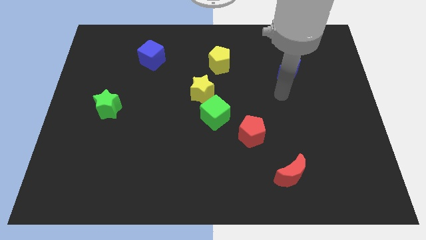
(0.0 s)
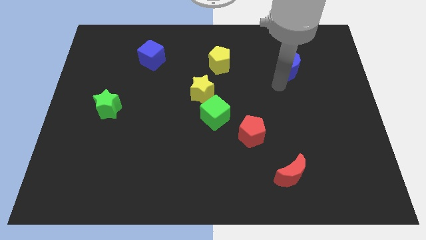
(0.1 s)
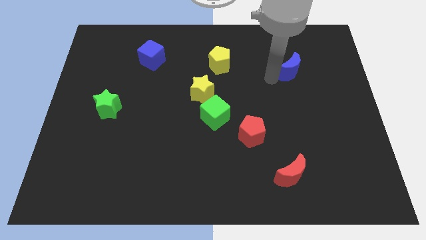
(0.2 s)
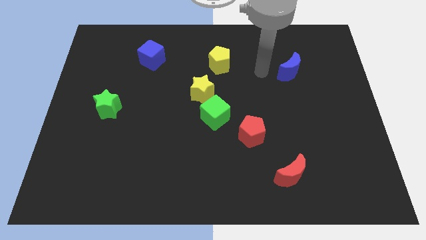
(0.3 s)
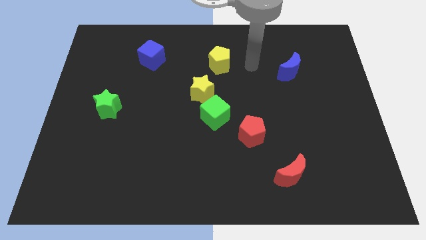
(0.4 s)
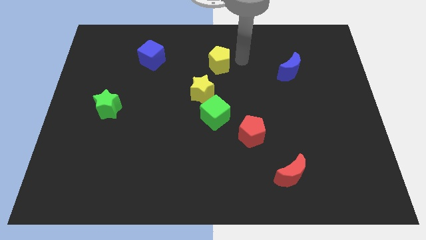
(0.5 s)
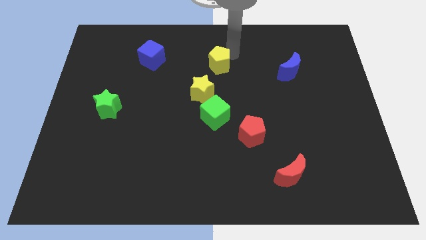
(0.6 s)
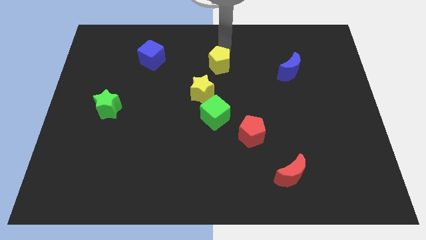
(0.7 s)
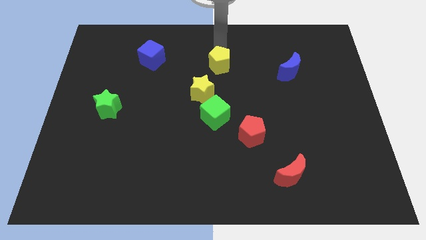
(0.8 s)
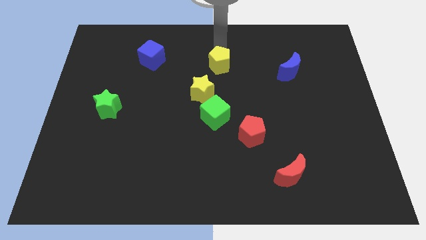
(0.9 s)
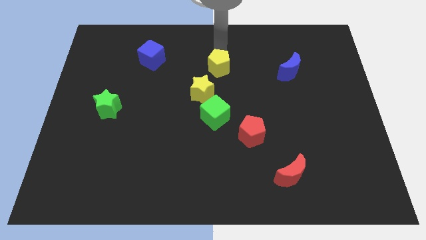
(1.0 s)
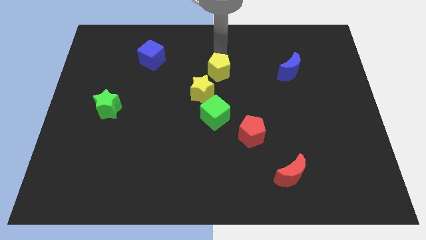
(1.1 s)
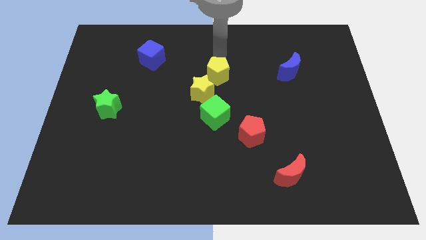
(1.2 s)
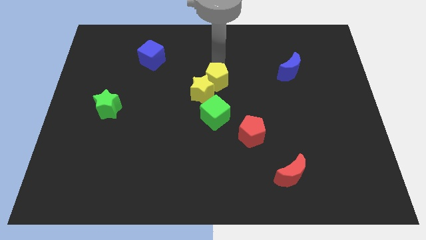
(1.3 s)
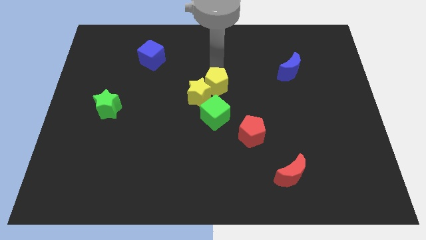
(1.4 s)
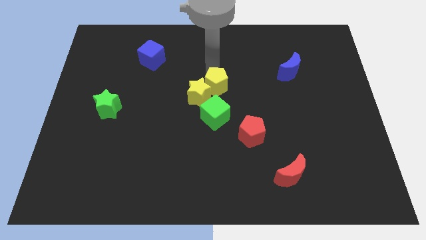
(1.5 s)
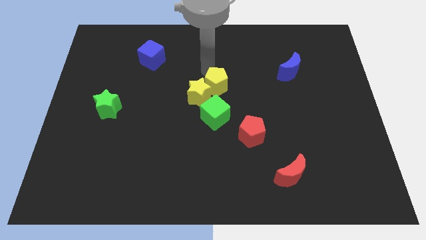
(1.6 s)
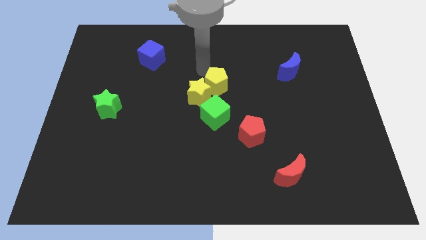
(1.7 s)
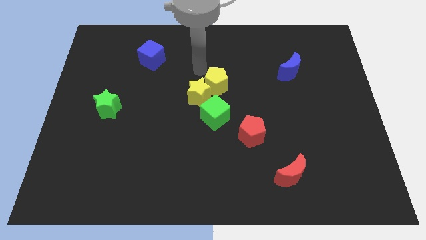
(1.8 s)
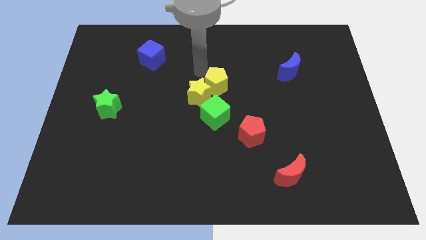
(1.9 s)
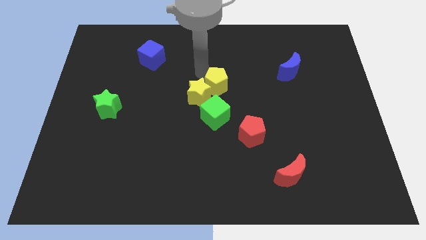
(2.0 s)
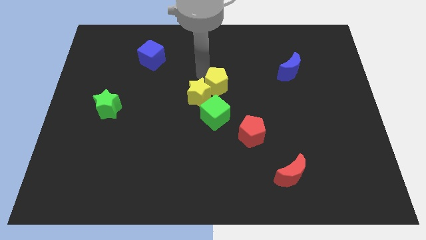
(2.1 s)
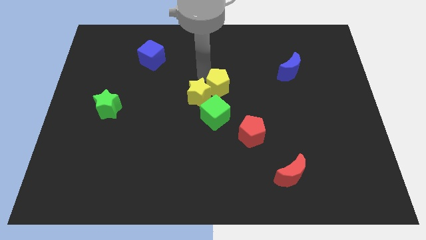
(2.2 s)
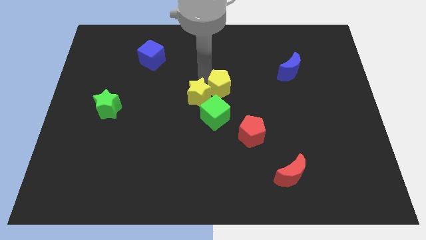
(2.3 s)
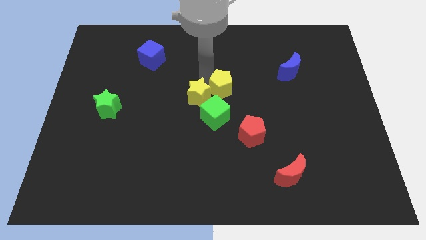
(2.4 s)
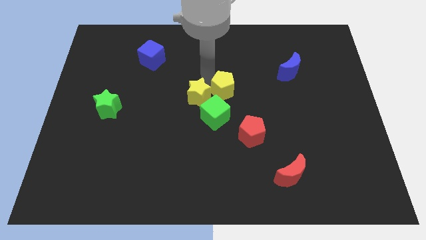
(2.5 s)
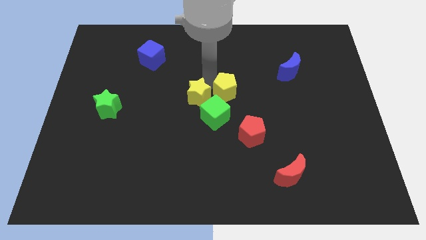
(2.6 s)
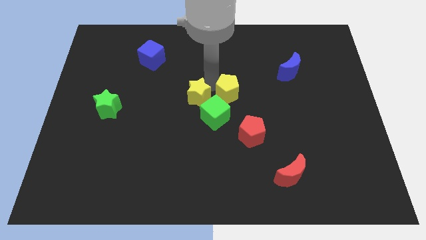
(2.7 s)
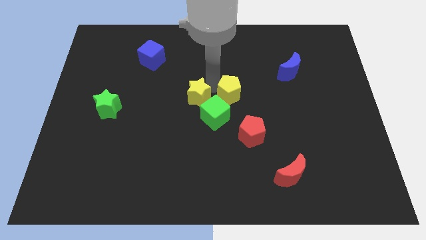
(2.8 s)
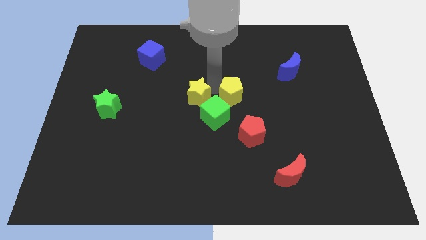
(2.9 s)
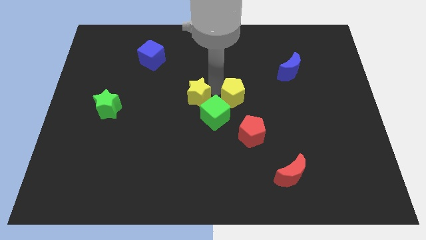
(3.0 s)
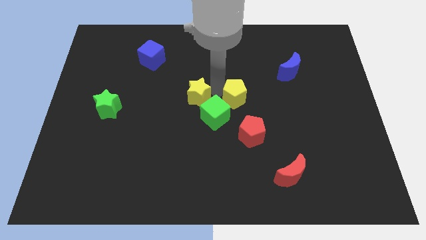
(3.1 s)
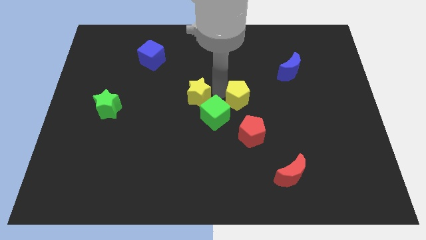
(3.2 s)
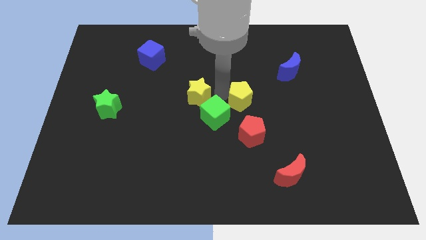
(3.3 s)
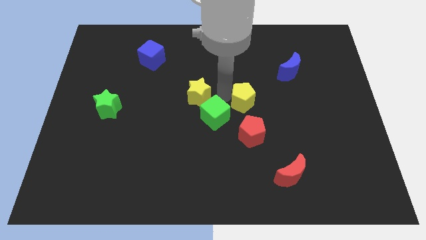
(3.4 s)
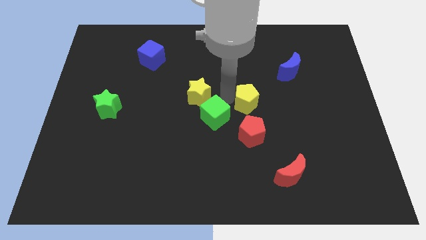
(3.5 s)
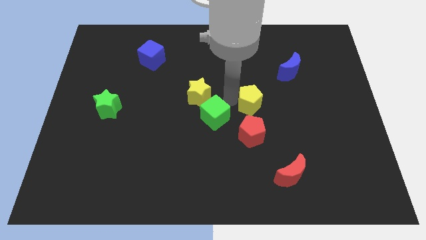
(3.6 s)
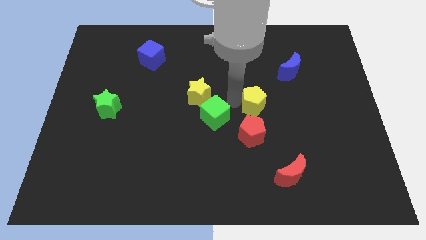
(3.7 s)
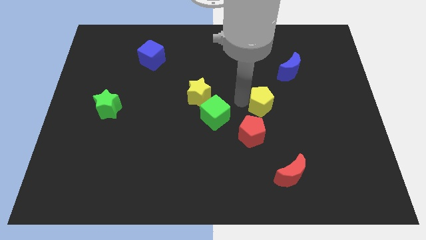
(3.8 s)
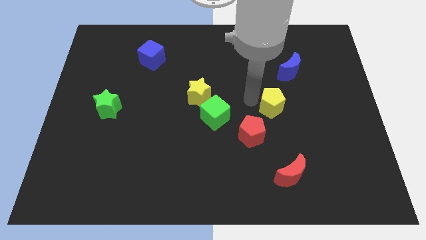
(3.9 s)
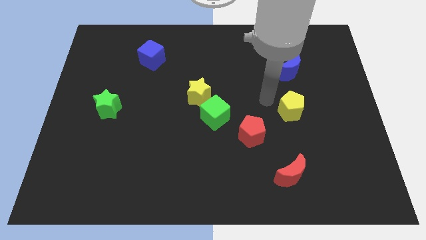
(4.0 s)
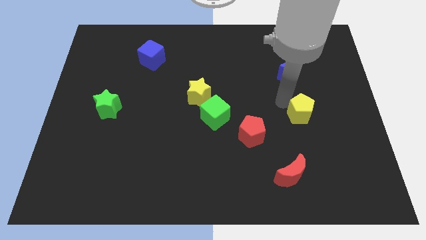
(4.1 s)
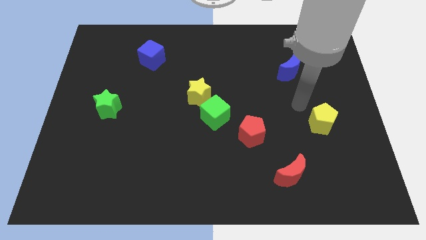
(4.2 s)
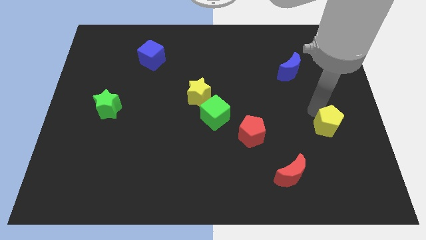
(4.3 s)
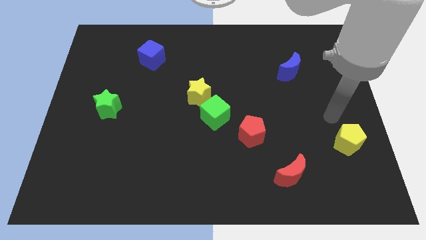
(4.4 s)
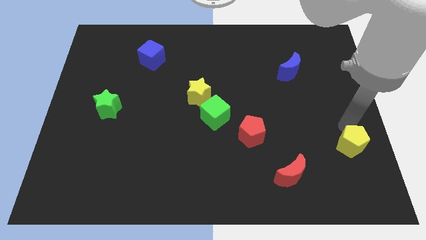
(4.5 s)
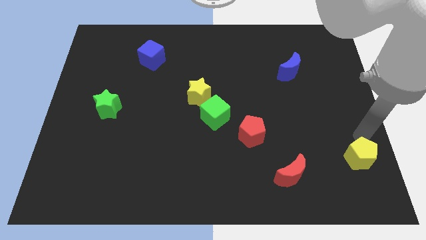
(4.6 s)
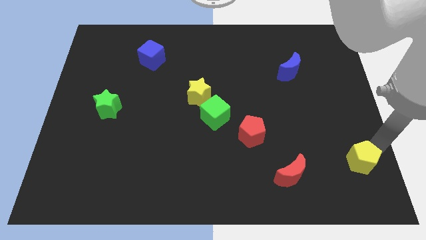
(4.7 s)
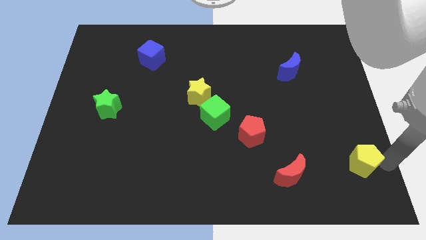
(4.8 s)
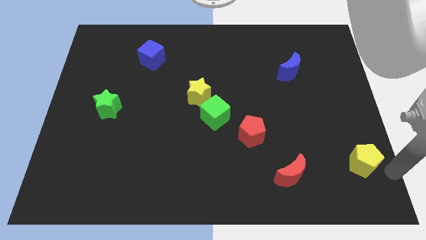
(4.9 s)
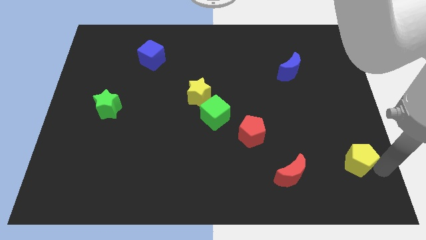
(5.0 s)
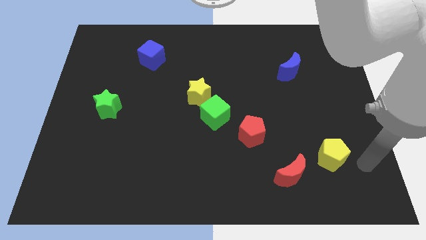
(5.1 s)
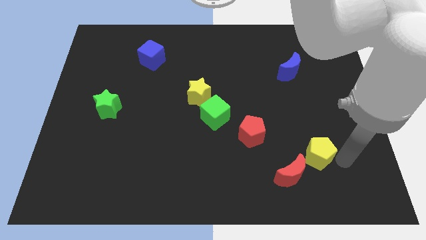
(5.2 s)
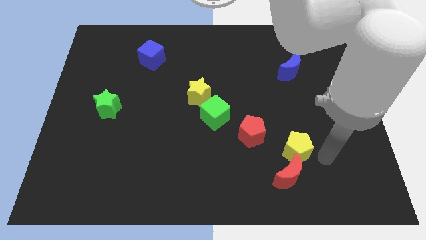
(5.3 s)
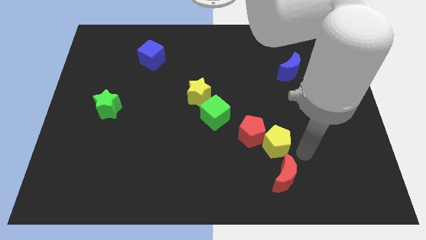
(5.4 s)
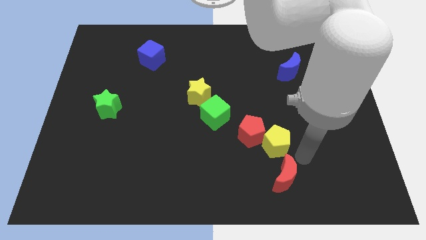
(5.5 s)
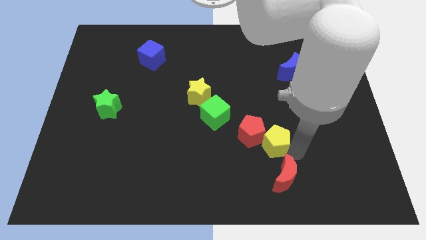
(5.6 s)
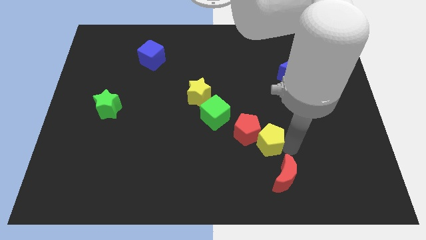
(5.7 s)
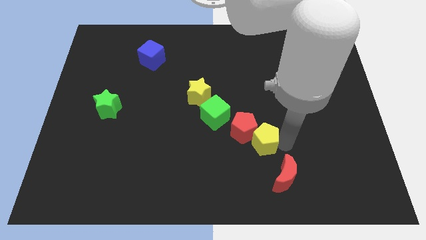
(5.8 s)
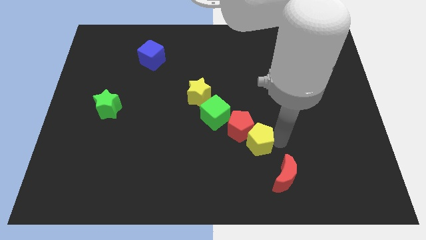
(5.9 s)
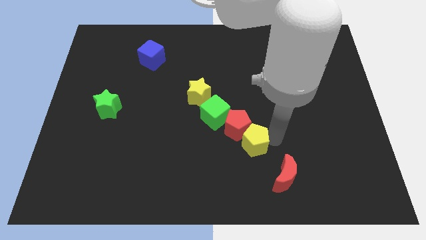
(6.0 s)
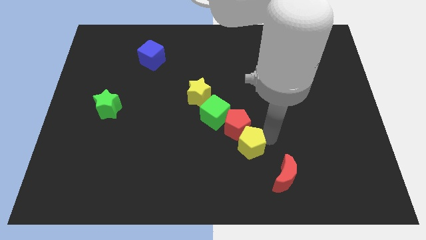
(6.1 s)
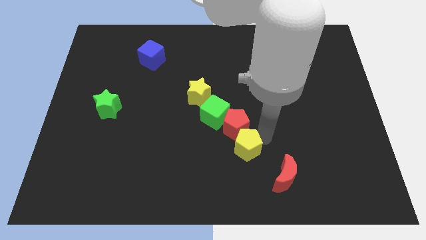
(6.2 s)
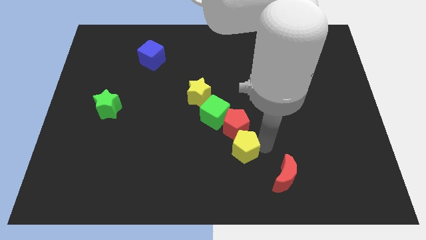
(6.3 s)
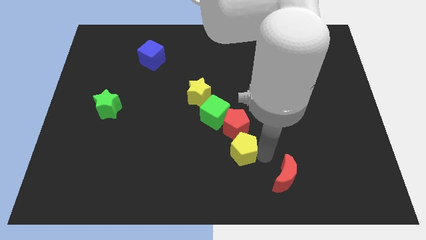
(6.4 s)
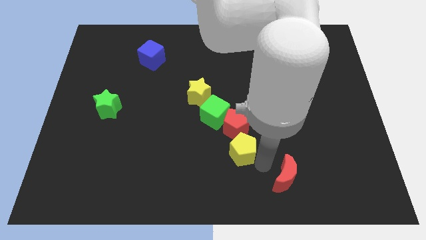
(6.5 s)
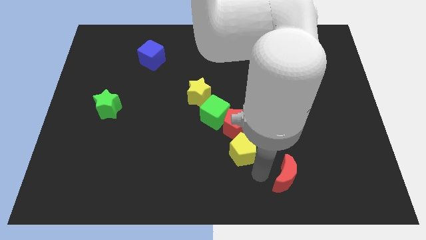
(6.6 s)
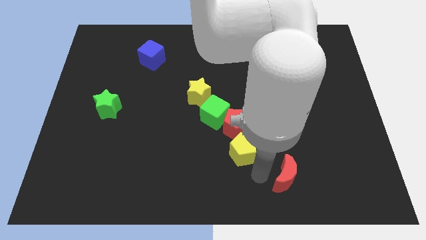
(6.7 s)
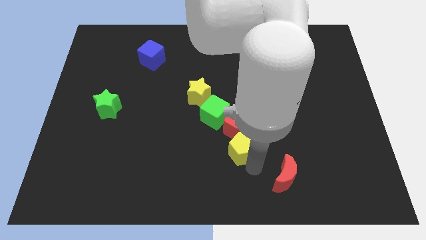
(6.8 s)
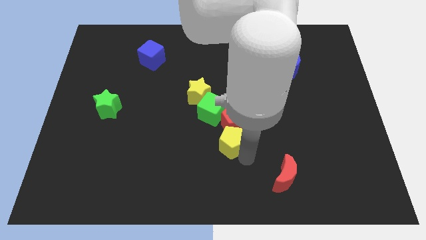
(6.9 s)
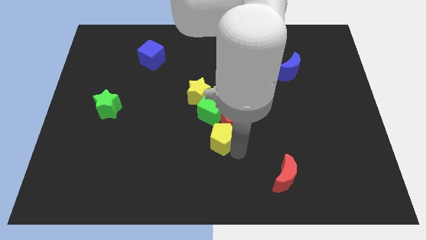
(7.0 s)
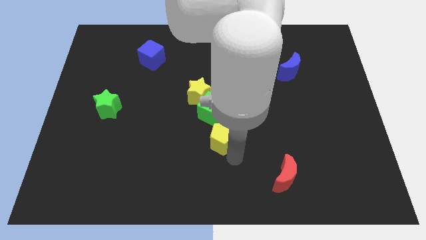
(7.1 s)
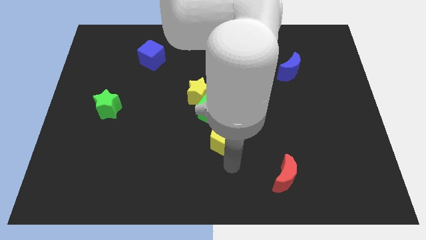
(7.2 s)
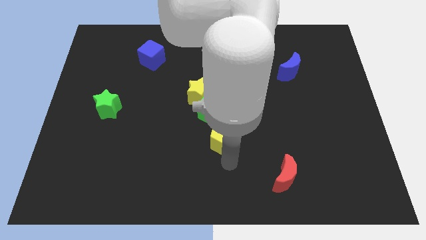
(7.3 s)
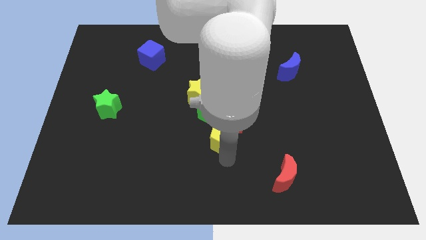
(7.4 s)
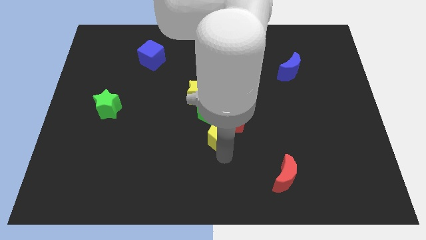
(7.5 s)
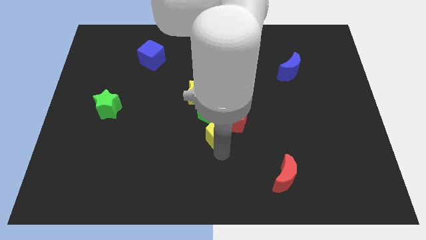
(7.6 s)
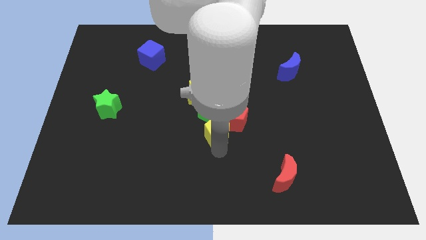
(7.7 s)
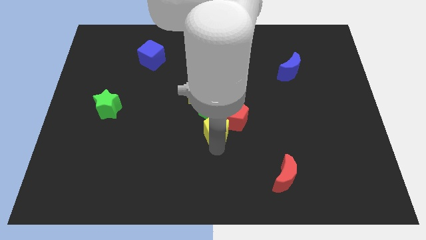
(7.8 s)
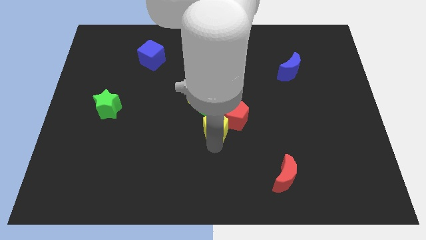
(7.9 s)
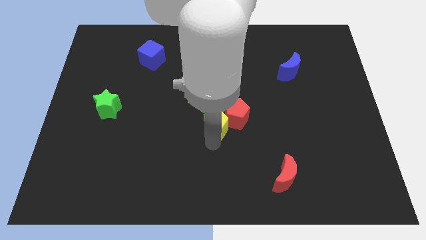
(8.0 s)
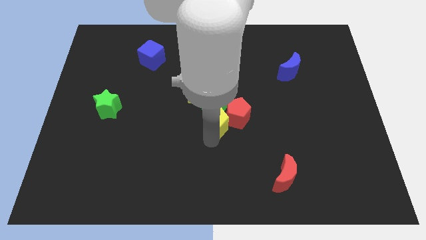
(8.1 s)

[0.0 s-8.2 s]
put the yellow pentagon close to the green cube
